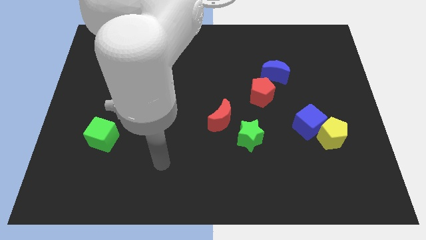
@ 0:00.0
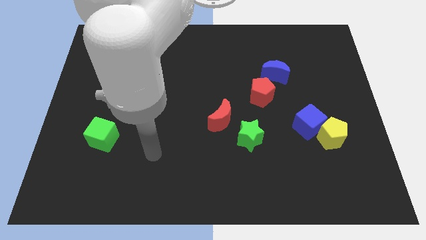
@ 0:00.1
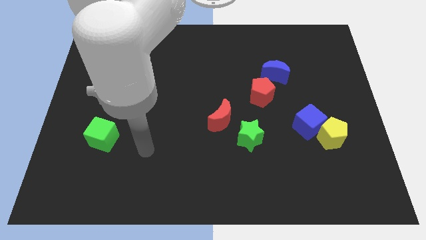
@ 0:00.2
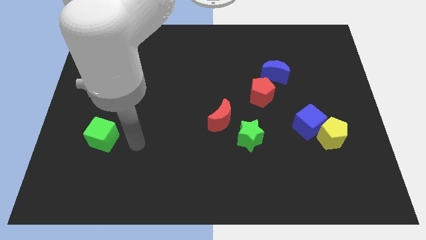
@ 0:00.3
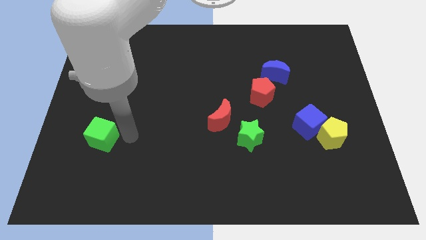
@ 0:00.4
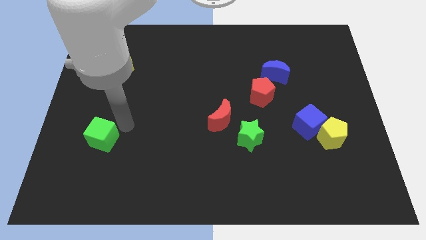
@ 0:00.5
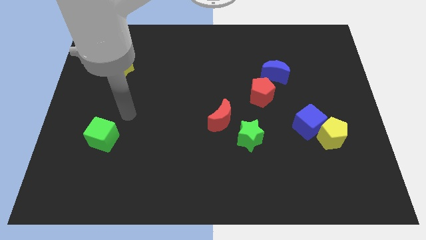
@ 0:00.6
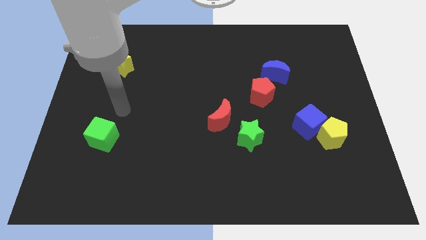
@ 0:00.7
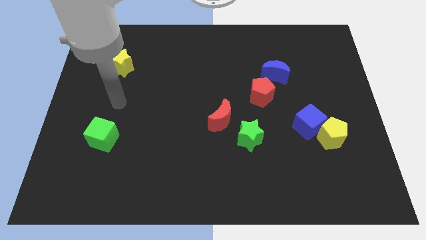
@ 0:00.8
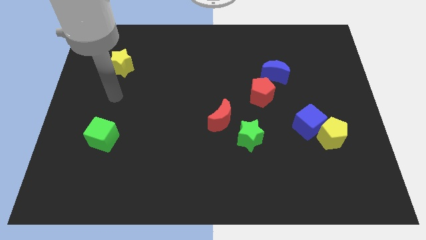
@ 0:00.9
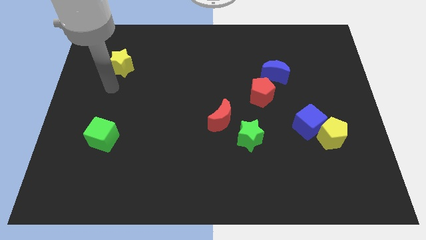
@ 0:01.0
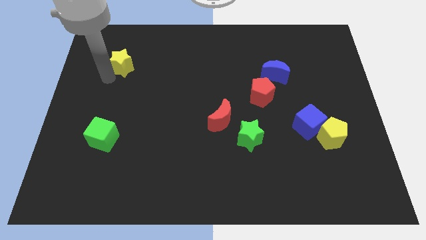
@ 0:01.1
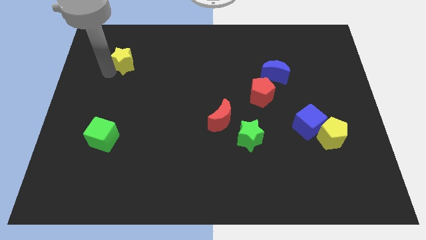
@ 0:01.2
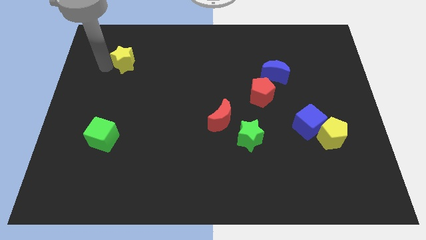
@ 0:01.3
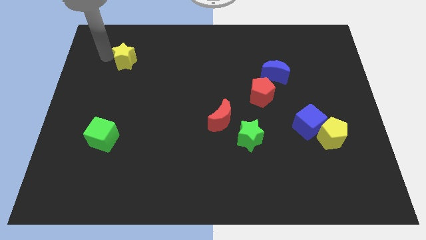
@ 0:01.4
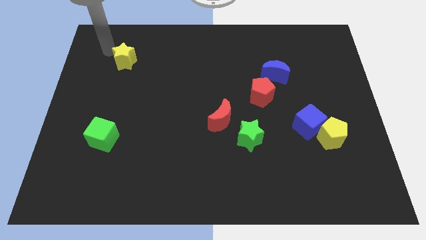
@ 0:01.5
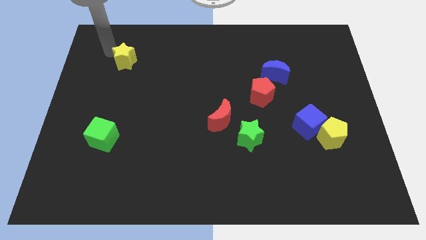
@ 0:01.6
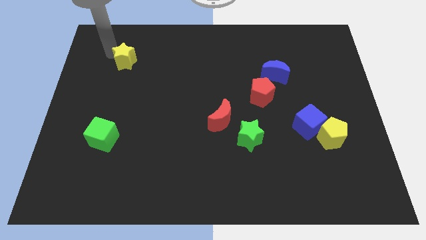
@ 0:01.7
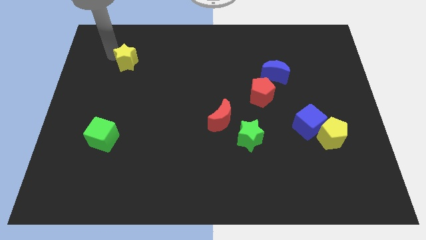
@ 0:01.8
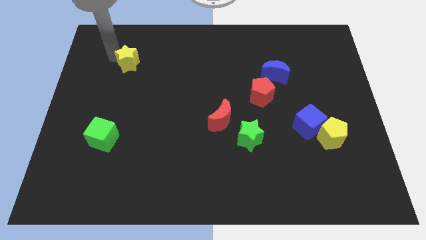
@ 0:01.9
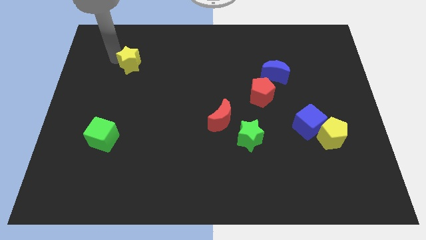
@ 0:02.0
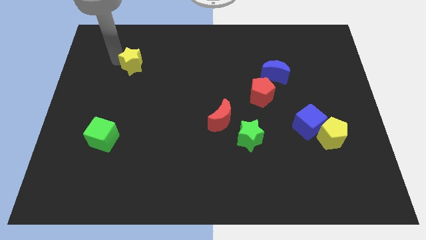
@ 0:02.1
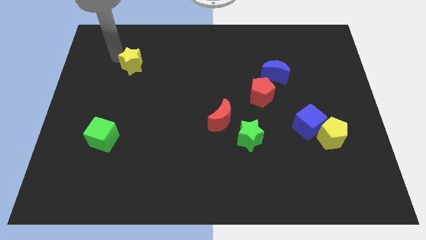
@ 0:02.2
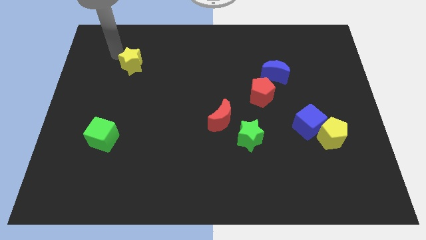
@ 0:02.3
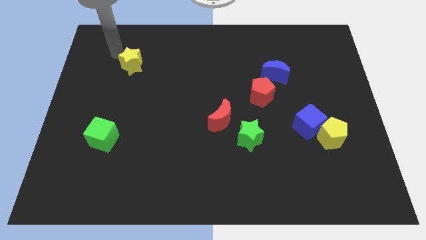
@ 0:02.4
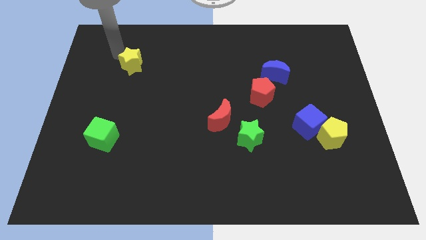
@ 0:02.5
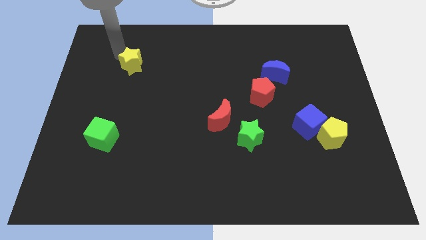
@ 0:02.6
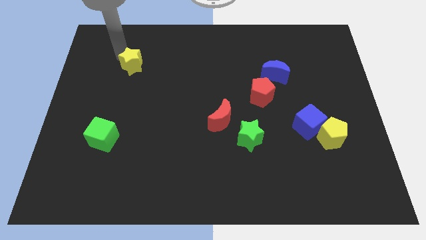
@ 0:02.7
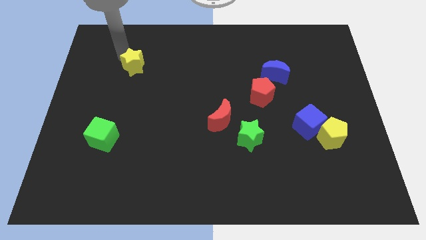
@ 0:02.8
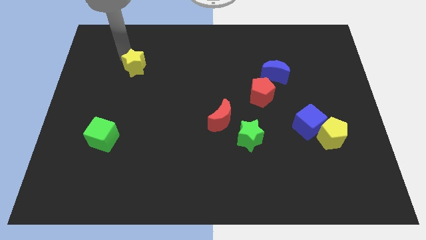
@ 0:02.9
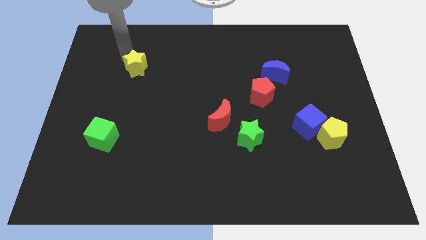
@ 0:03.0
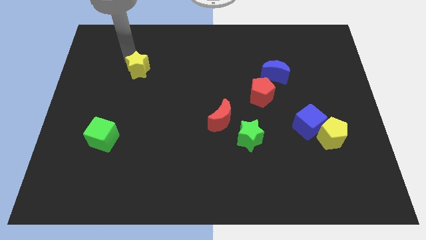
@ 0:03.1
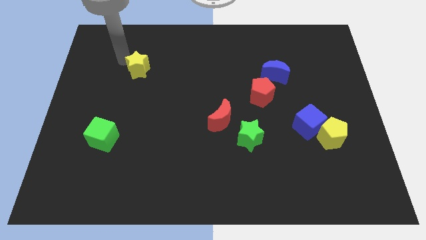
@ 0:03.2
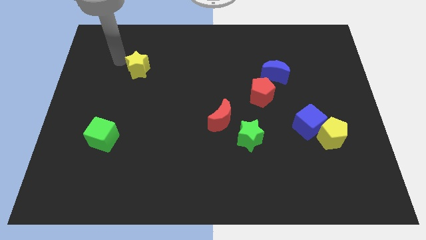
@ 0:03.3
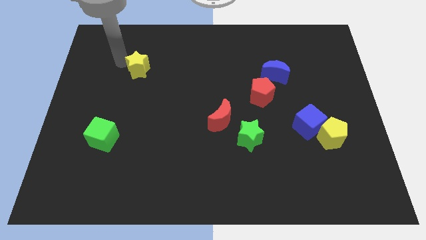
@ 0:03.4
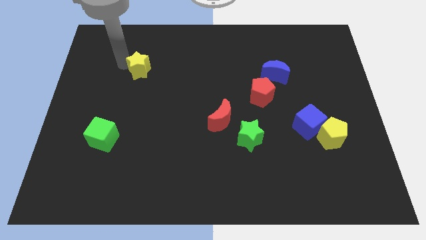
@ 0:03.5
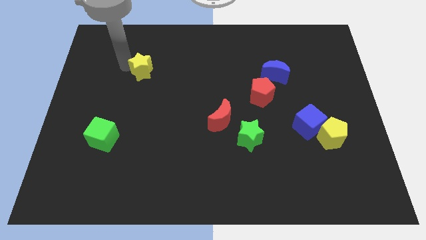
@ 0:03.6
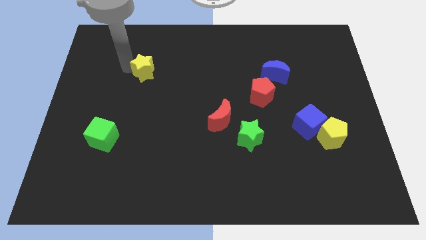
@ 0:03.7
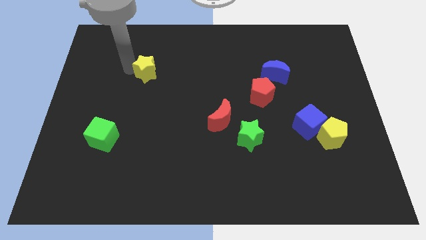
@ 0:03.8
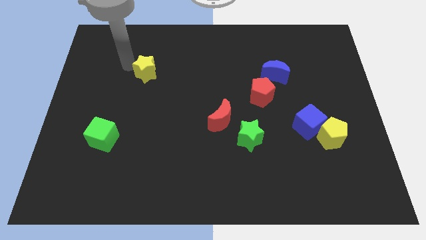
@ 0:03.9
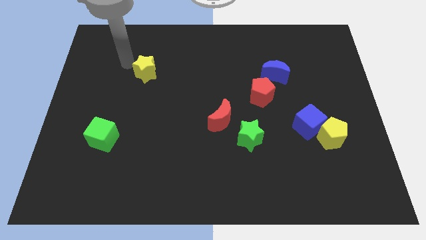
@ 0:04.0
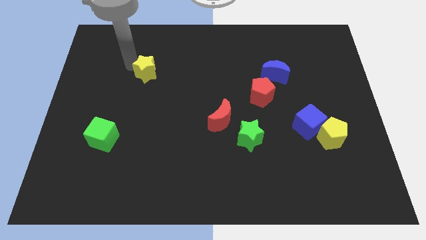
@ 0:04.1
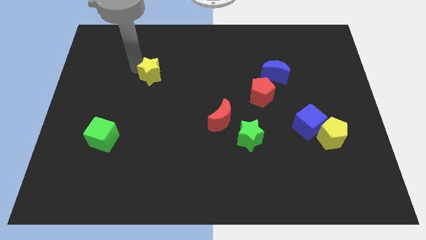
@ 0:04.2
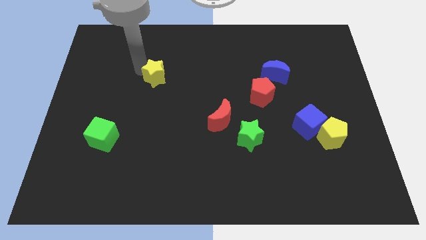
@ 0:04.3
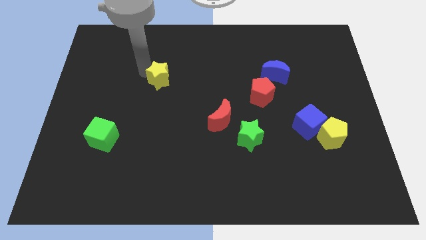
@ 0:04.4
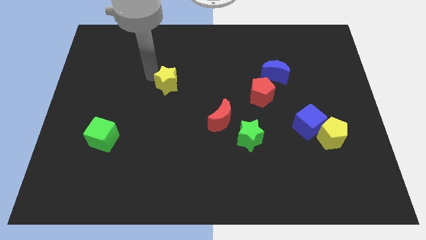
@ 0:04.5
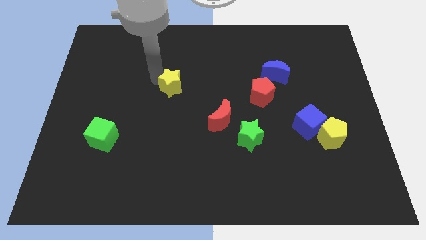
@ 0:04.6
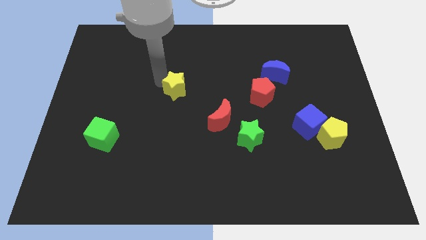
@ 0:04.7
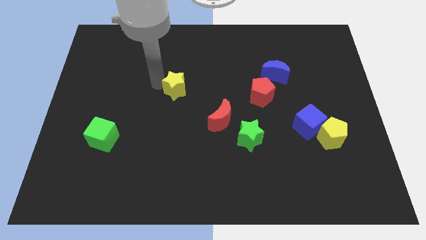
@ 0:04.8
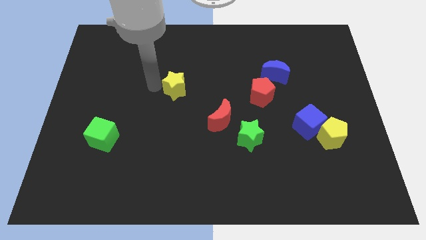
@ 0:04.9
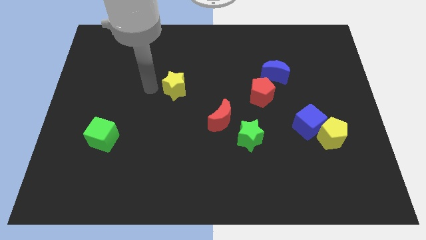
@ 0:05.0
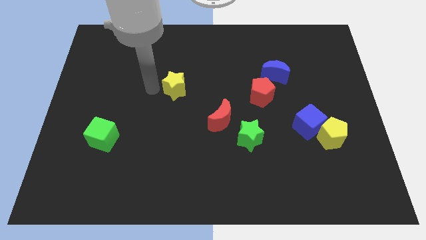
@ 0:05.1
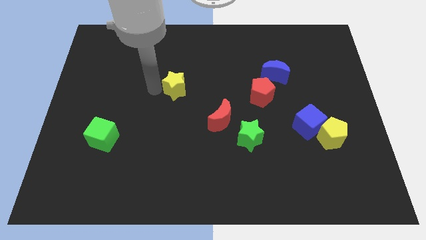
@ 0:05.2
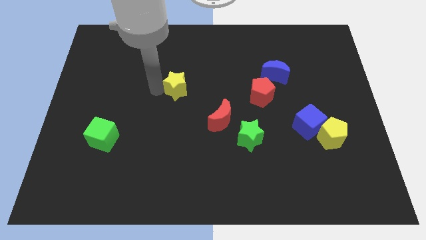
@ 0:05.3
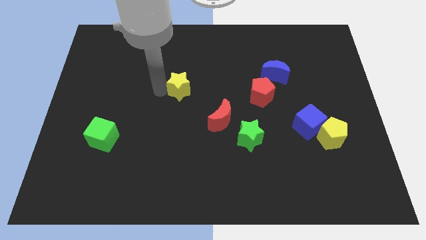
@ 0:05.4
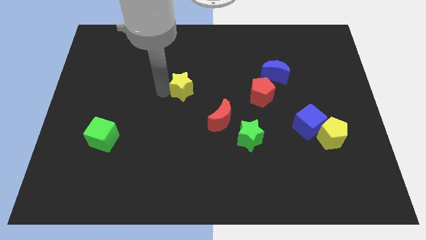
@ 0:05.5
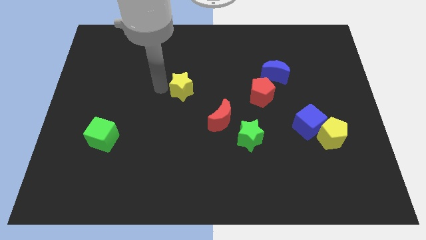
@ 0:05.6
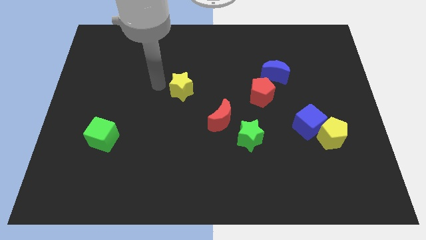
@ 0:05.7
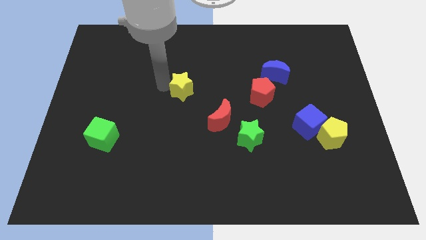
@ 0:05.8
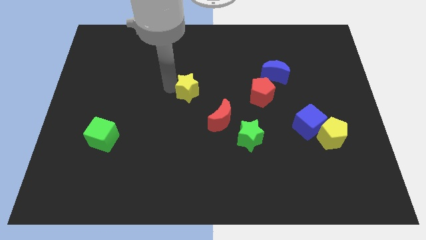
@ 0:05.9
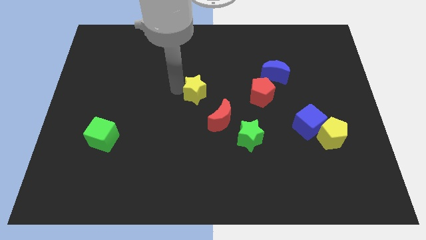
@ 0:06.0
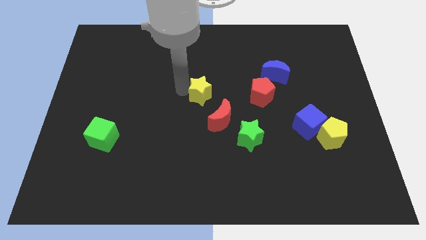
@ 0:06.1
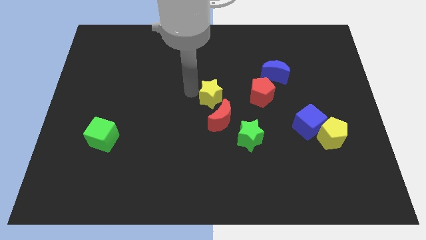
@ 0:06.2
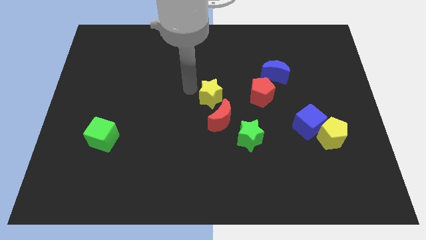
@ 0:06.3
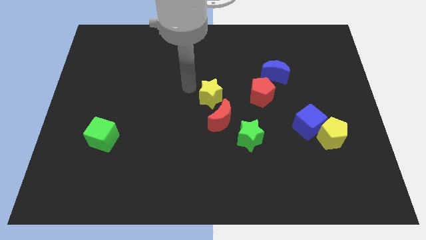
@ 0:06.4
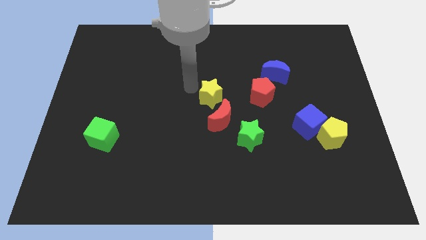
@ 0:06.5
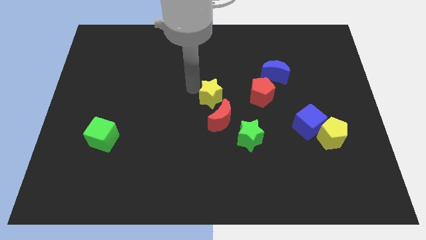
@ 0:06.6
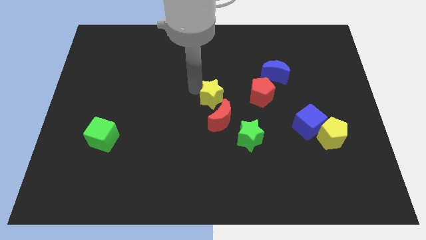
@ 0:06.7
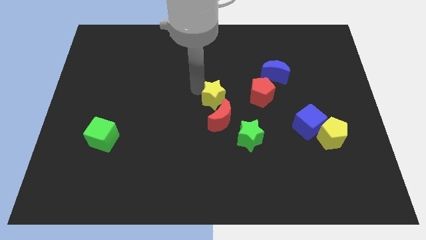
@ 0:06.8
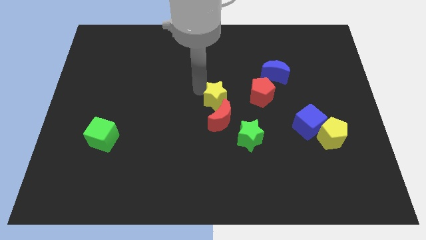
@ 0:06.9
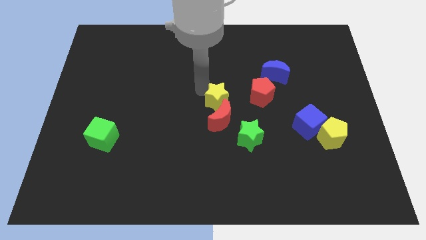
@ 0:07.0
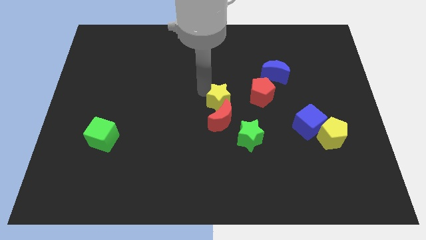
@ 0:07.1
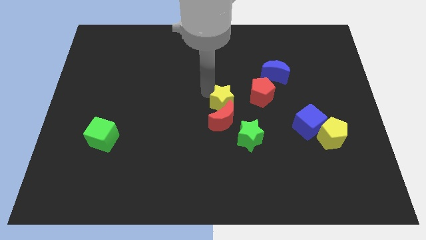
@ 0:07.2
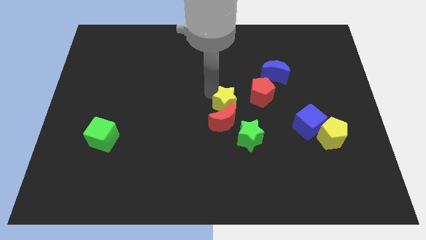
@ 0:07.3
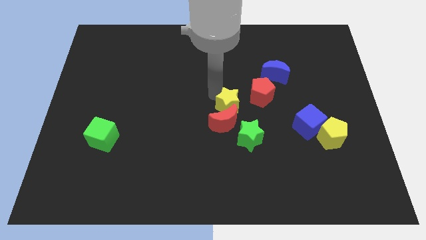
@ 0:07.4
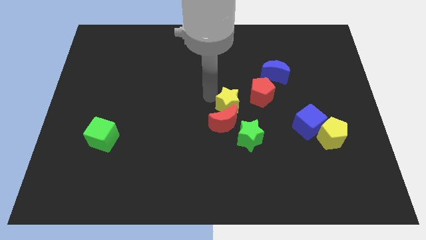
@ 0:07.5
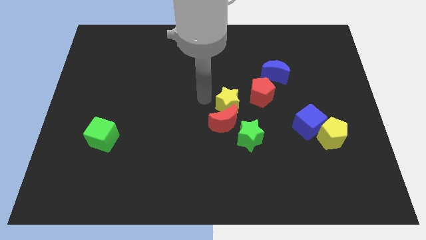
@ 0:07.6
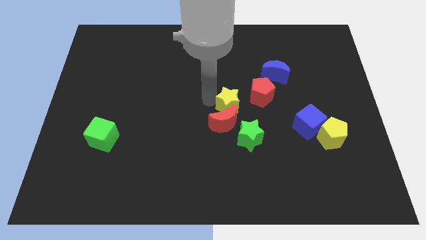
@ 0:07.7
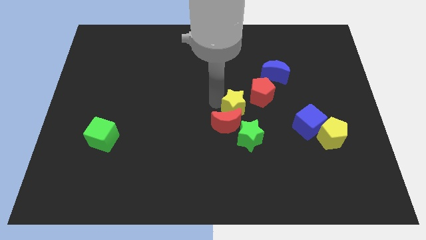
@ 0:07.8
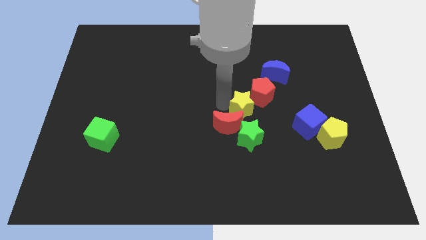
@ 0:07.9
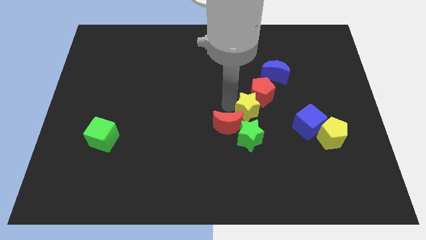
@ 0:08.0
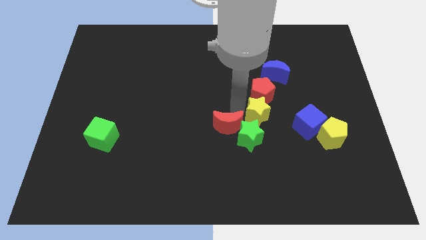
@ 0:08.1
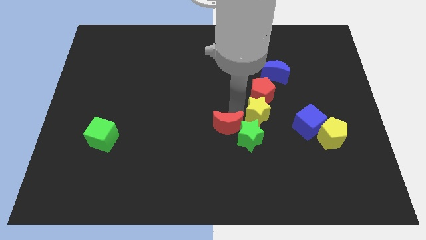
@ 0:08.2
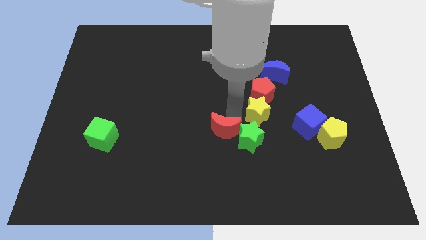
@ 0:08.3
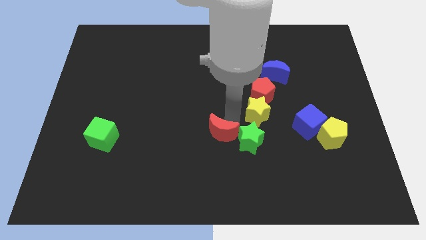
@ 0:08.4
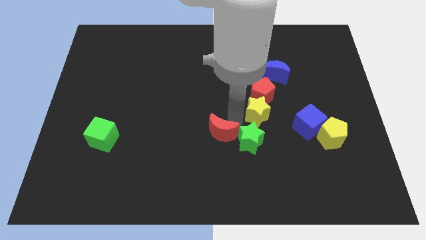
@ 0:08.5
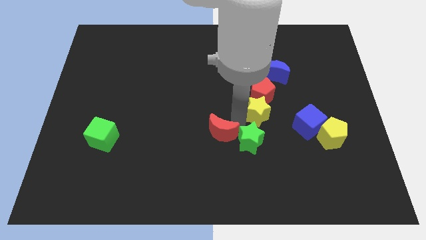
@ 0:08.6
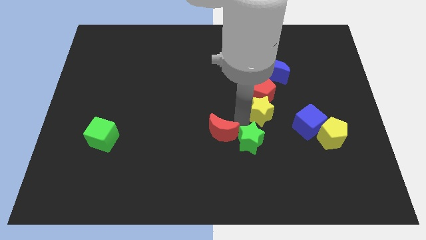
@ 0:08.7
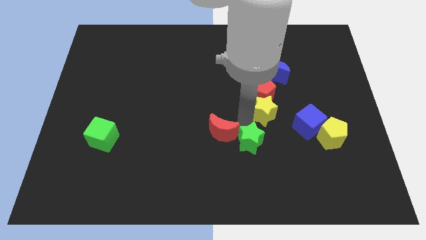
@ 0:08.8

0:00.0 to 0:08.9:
slide the yellow star to the top left side of the blue cube
